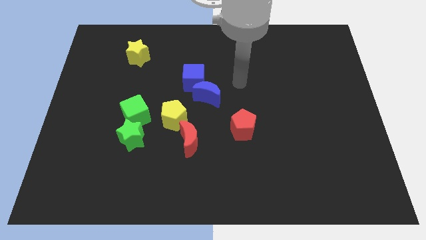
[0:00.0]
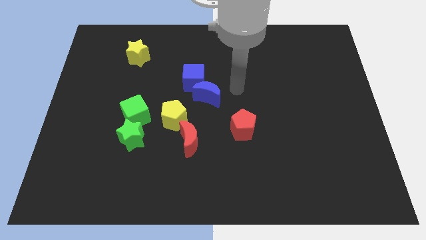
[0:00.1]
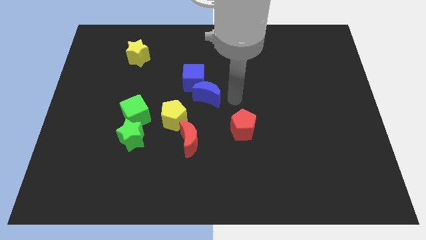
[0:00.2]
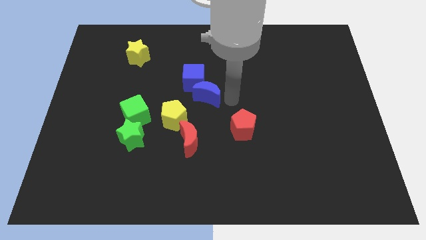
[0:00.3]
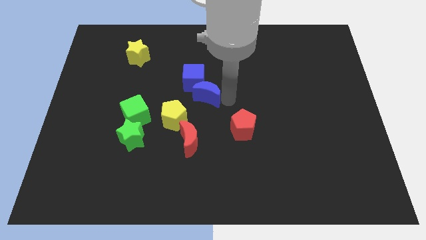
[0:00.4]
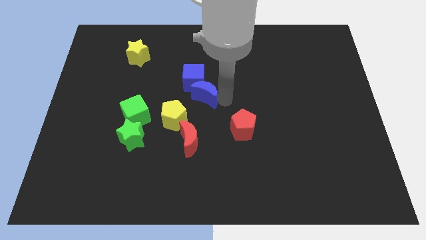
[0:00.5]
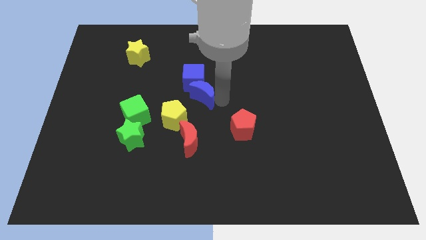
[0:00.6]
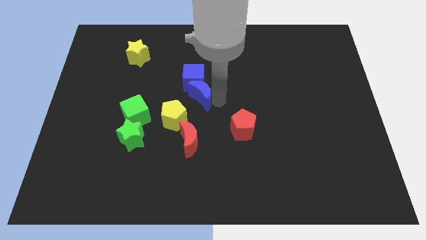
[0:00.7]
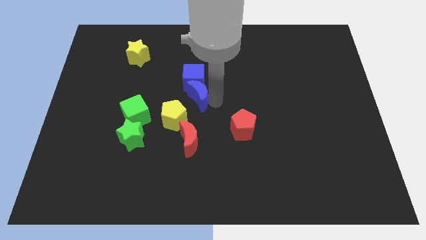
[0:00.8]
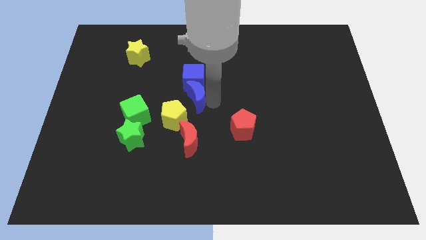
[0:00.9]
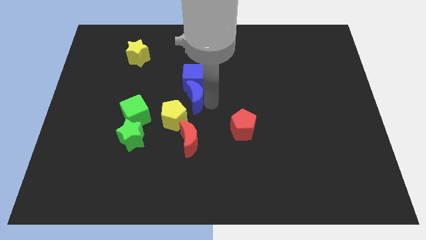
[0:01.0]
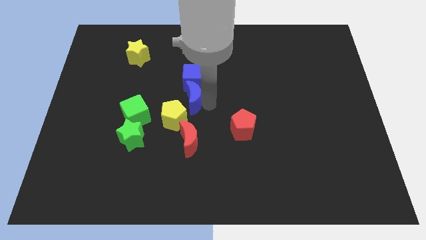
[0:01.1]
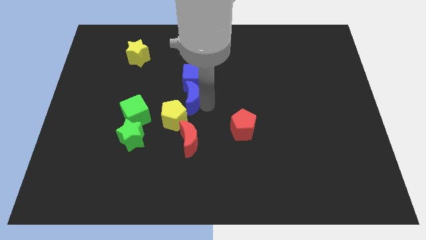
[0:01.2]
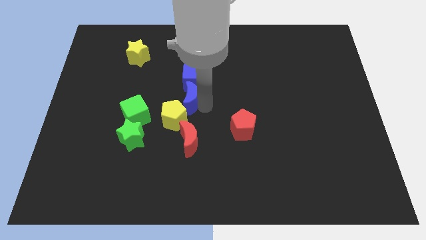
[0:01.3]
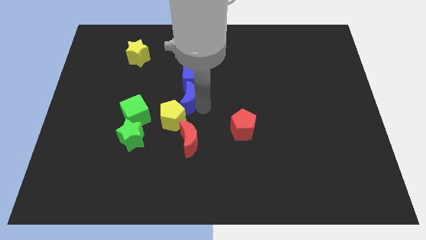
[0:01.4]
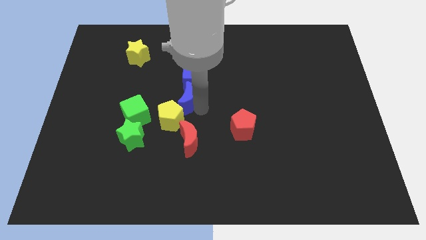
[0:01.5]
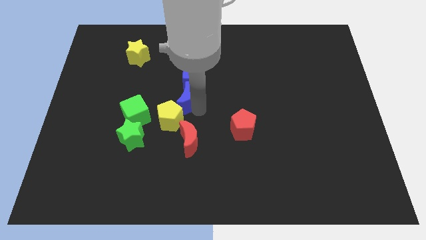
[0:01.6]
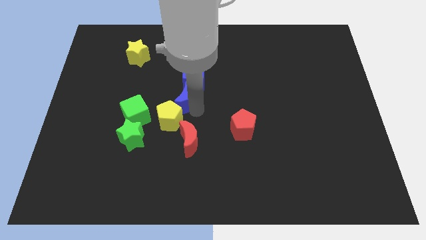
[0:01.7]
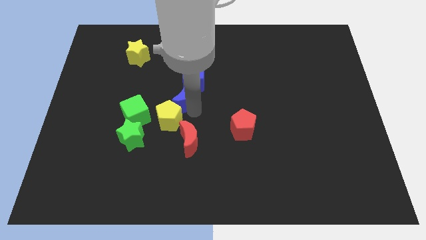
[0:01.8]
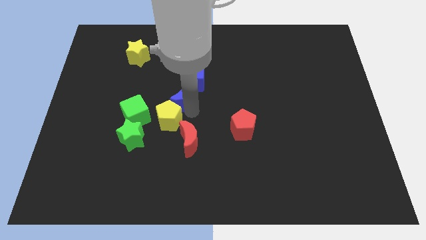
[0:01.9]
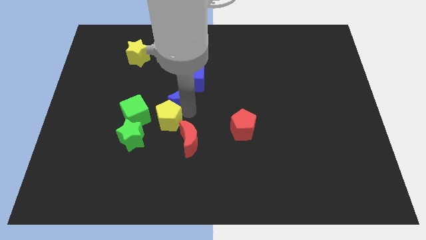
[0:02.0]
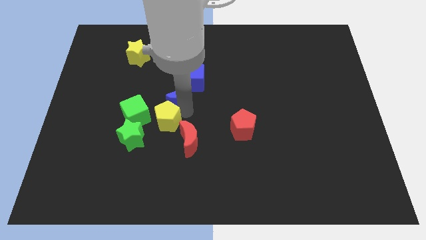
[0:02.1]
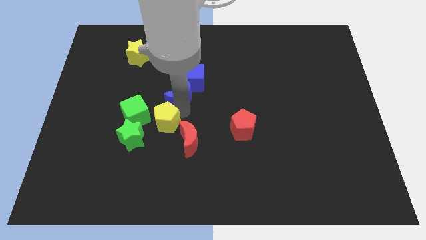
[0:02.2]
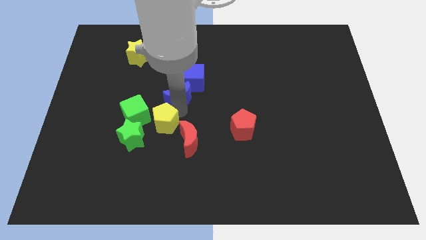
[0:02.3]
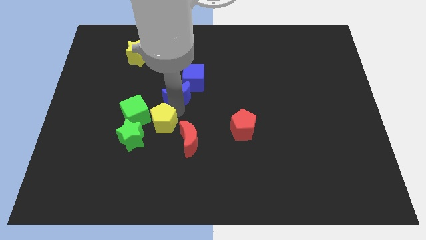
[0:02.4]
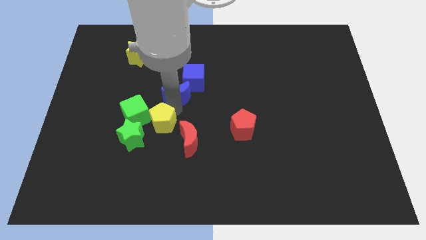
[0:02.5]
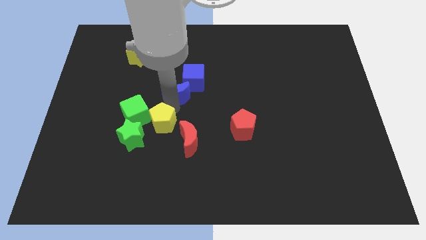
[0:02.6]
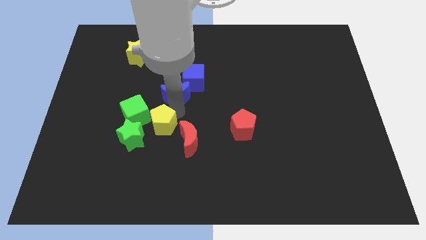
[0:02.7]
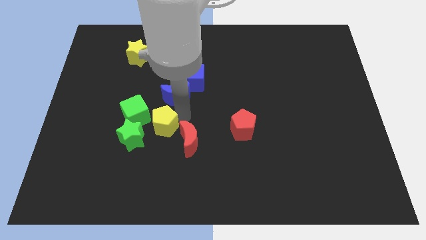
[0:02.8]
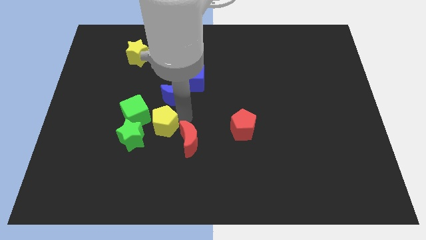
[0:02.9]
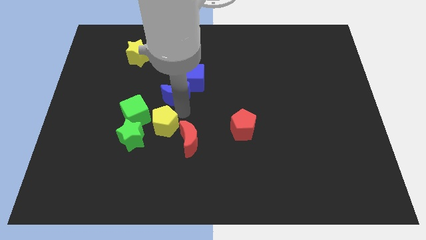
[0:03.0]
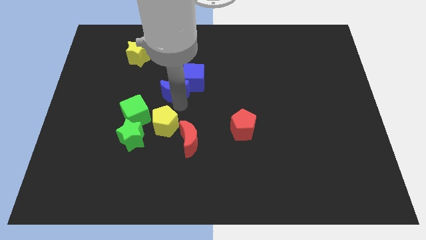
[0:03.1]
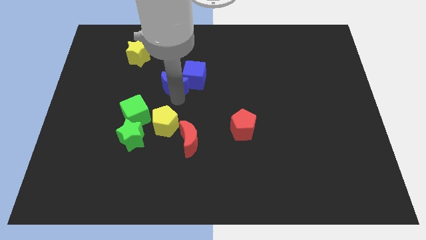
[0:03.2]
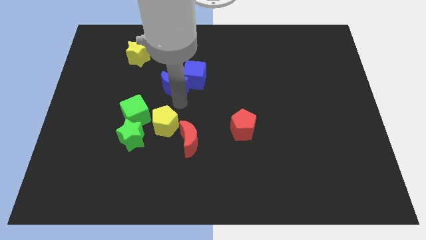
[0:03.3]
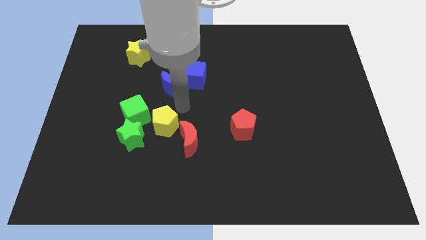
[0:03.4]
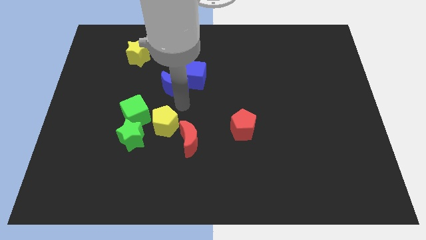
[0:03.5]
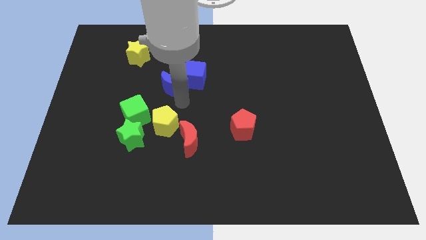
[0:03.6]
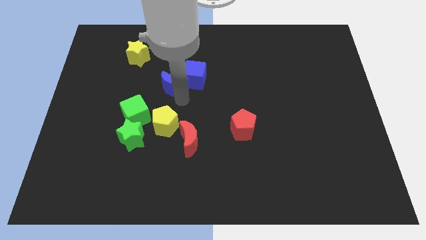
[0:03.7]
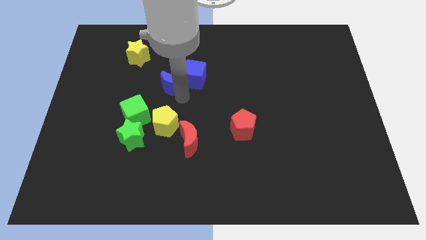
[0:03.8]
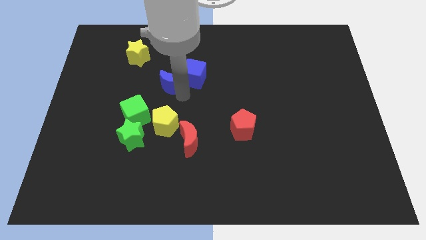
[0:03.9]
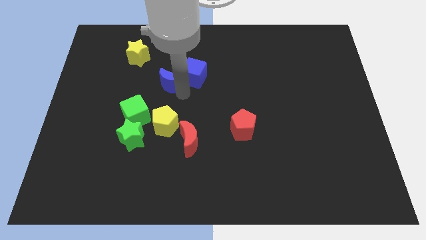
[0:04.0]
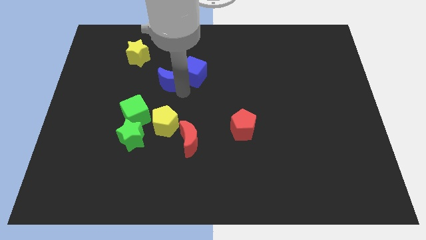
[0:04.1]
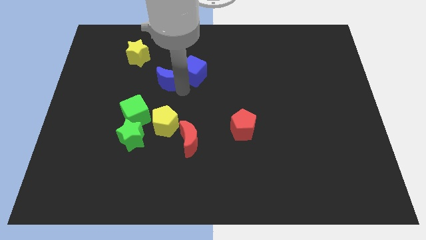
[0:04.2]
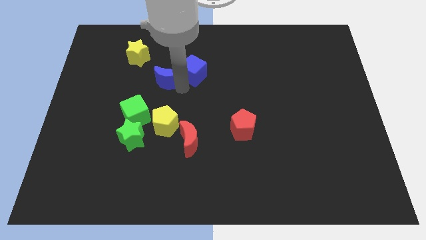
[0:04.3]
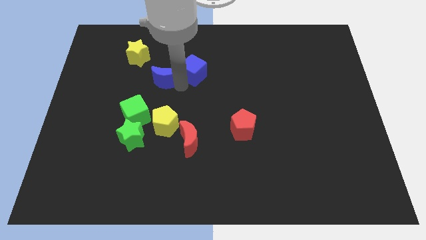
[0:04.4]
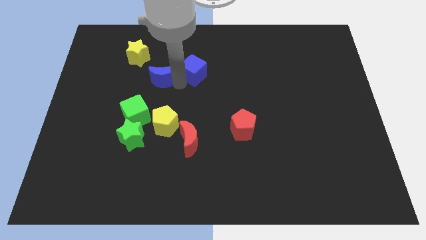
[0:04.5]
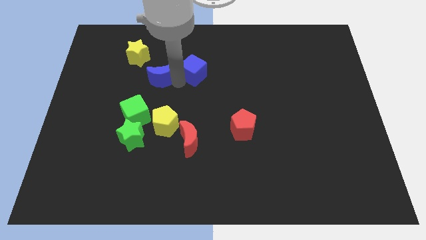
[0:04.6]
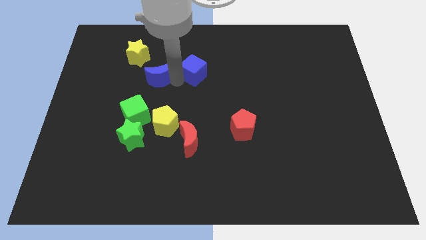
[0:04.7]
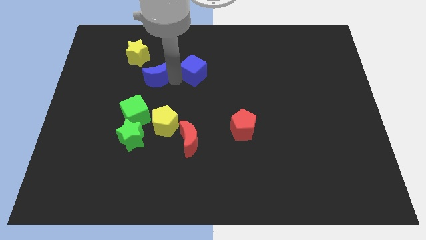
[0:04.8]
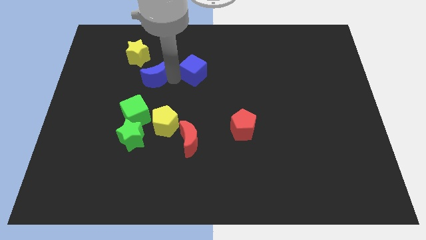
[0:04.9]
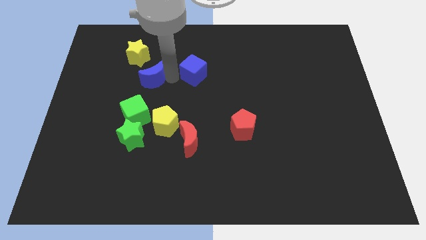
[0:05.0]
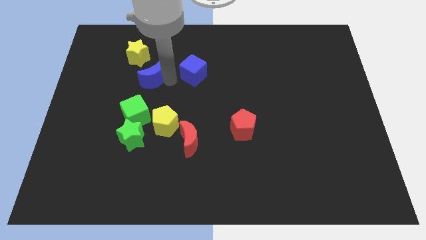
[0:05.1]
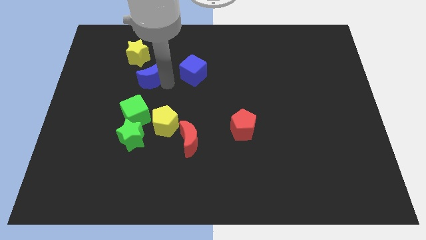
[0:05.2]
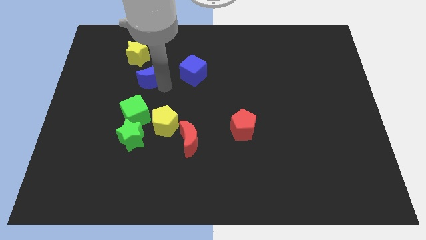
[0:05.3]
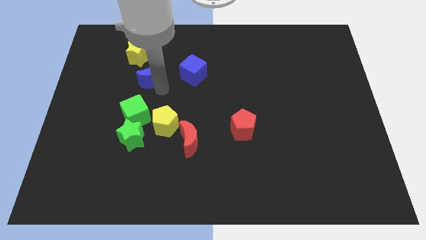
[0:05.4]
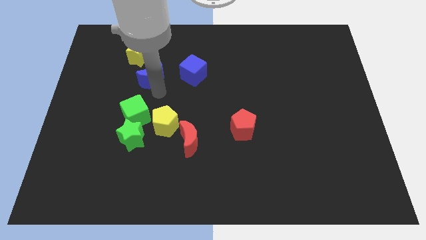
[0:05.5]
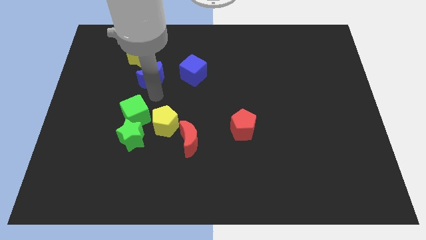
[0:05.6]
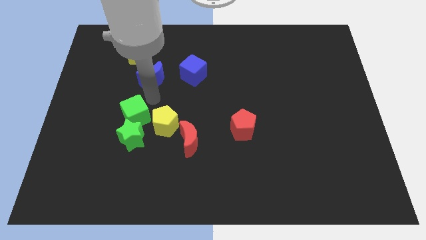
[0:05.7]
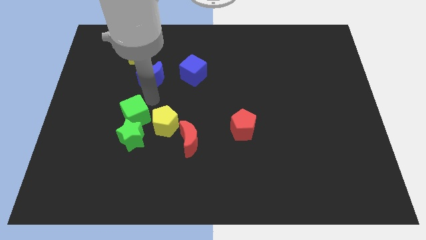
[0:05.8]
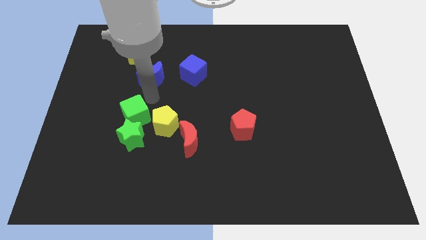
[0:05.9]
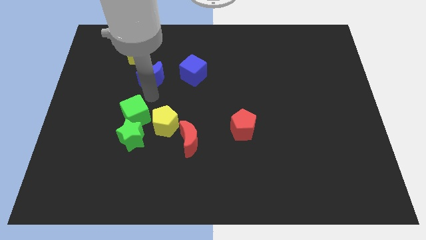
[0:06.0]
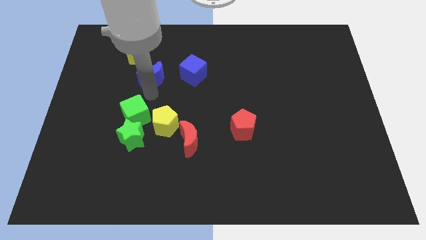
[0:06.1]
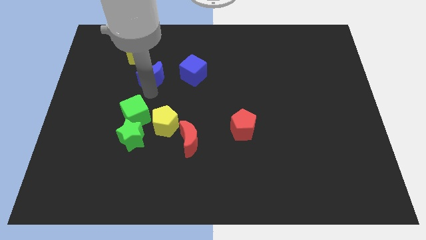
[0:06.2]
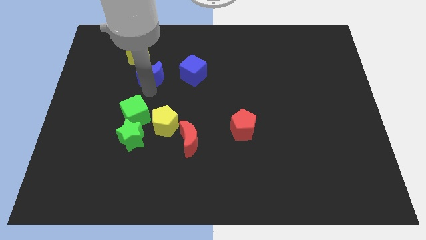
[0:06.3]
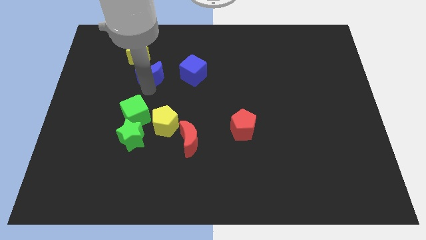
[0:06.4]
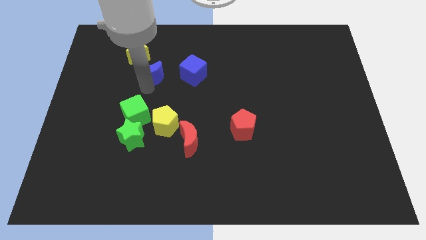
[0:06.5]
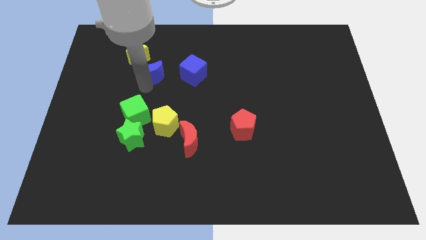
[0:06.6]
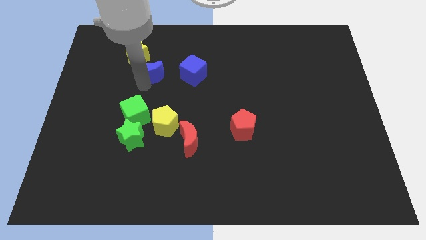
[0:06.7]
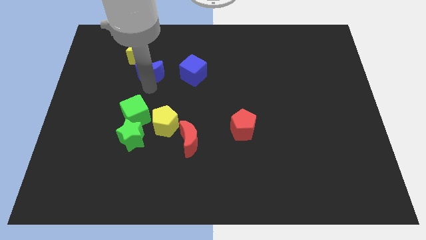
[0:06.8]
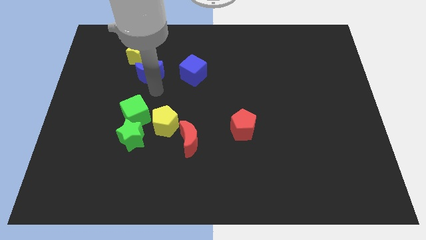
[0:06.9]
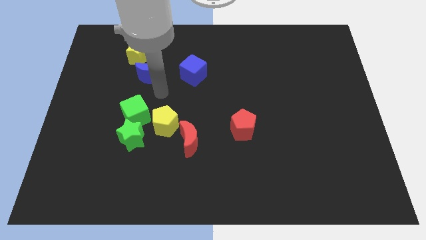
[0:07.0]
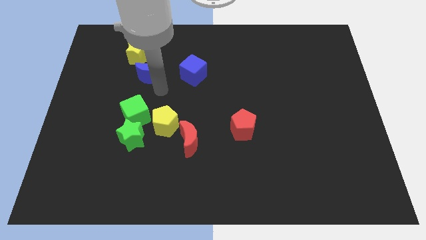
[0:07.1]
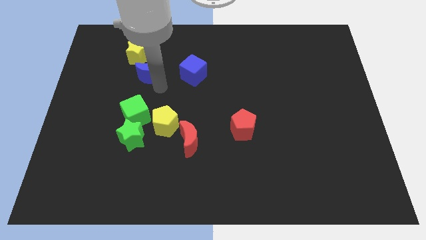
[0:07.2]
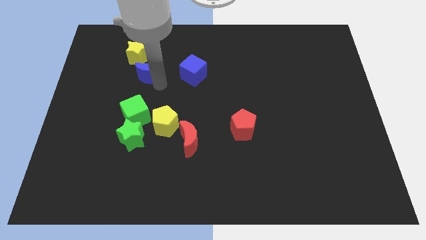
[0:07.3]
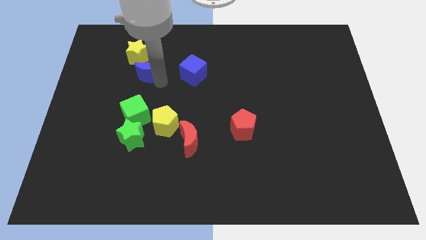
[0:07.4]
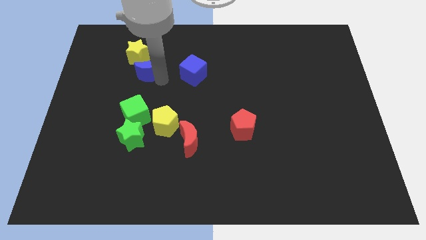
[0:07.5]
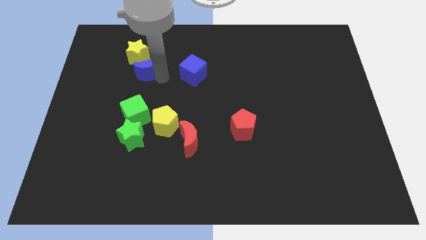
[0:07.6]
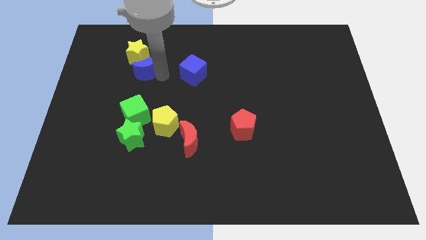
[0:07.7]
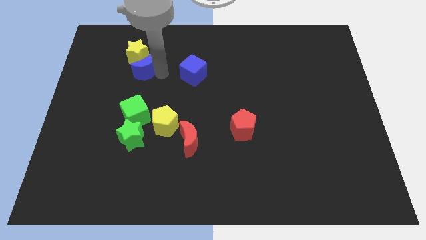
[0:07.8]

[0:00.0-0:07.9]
push the blue moon close to the yellow star
